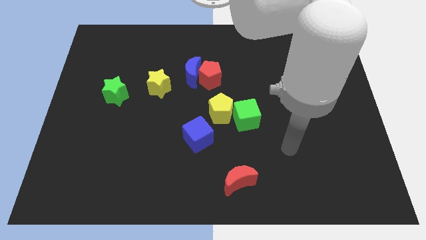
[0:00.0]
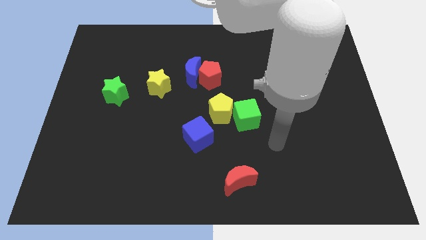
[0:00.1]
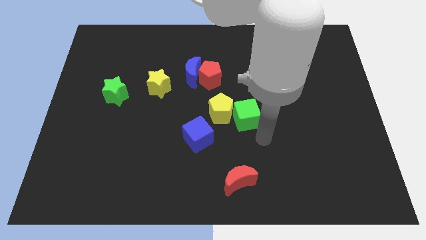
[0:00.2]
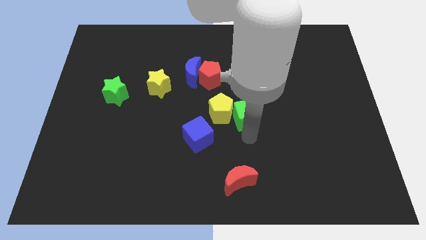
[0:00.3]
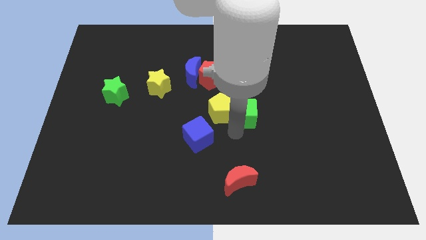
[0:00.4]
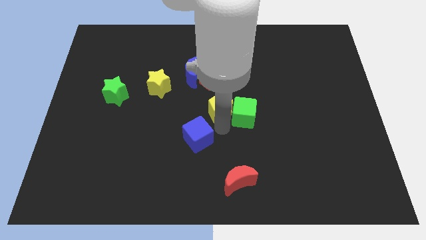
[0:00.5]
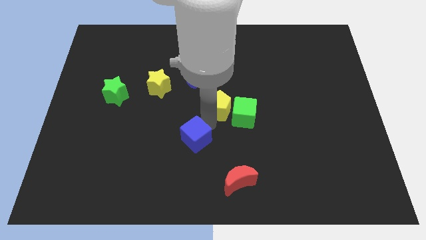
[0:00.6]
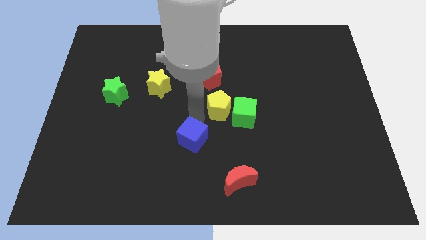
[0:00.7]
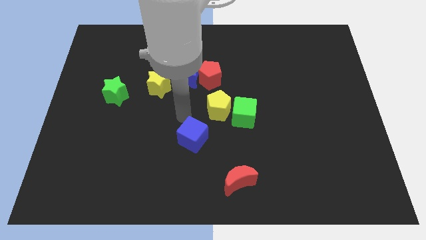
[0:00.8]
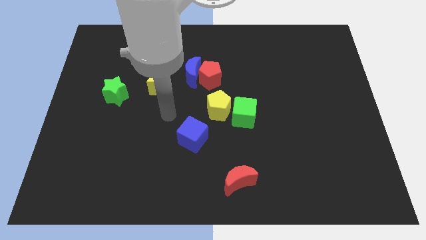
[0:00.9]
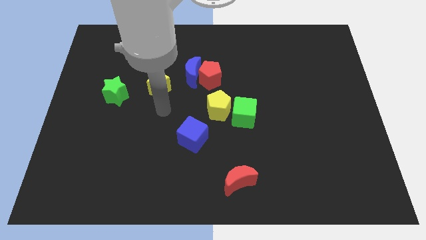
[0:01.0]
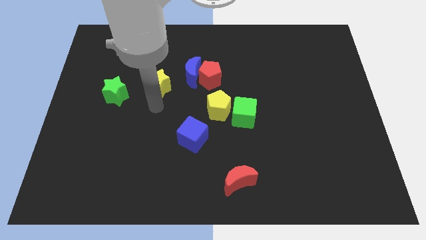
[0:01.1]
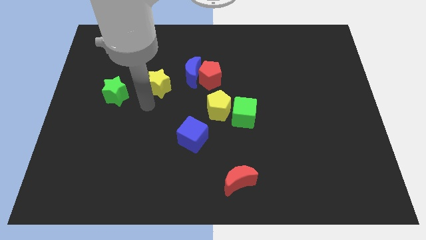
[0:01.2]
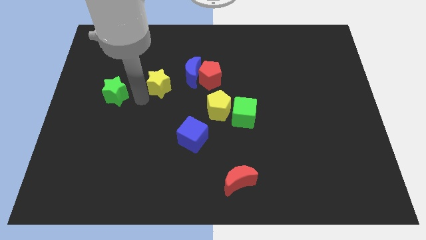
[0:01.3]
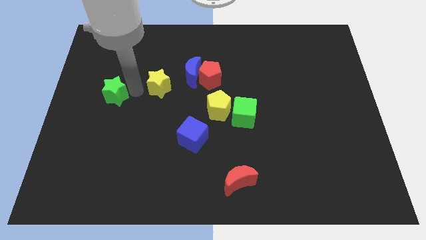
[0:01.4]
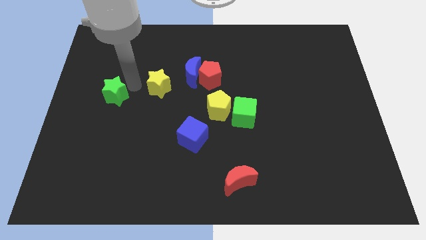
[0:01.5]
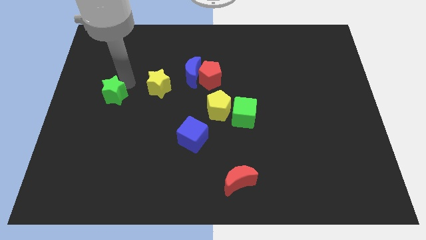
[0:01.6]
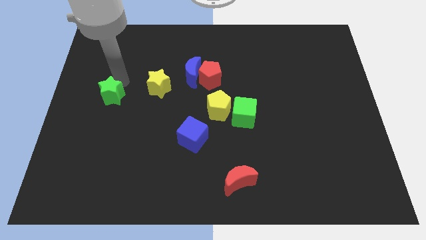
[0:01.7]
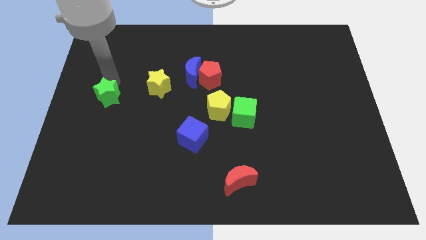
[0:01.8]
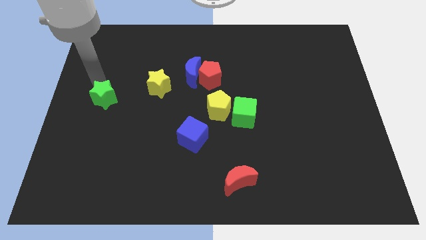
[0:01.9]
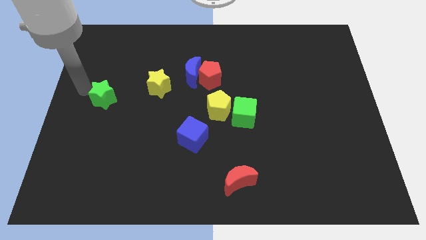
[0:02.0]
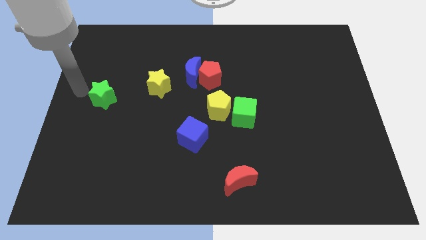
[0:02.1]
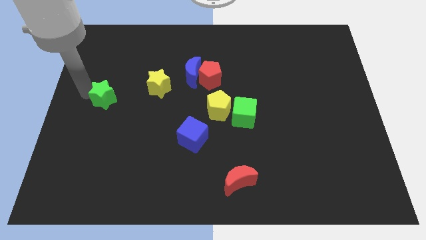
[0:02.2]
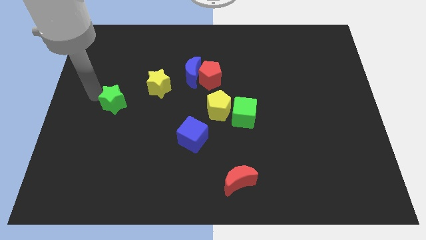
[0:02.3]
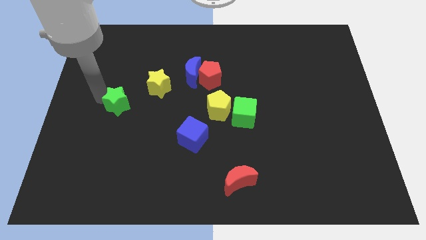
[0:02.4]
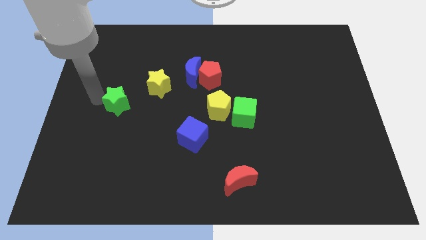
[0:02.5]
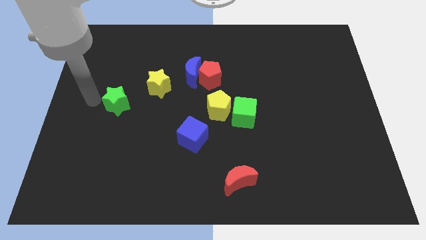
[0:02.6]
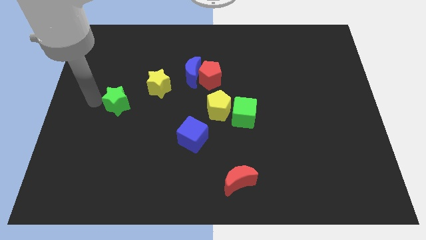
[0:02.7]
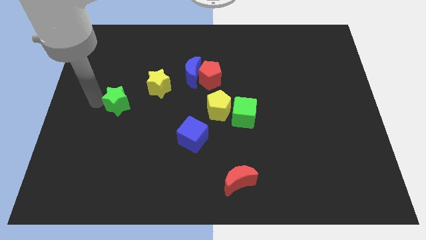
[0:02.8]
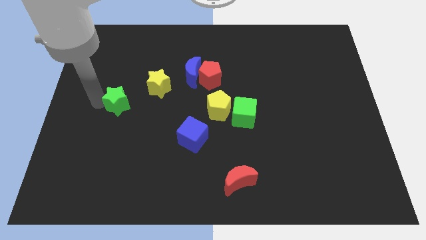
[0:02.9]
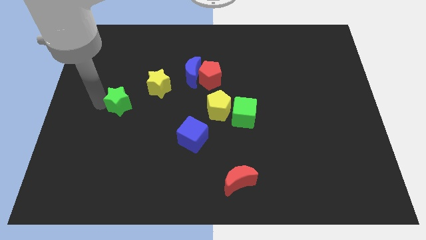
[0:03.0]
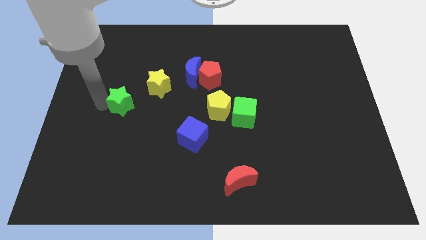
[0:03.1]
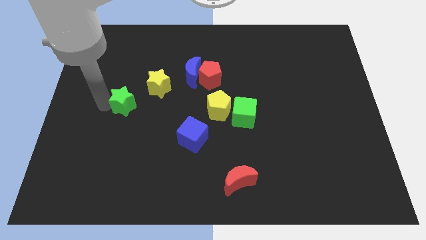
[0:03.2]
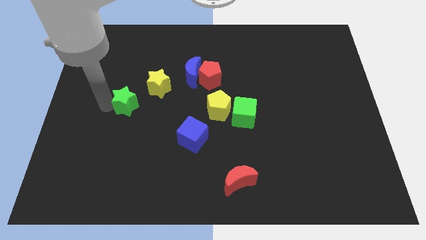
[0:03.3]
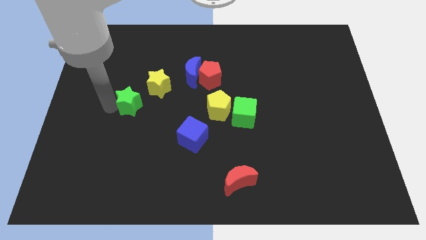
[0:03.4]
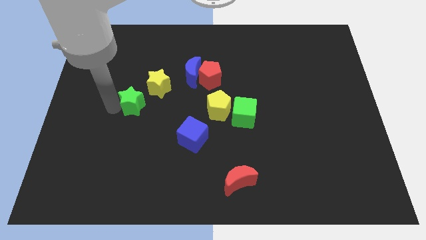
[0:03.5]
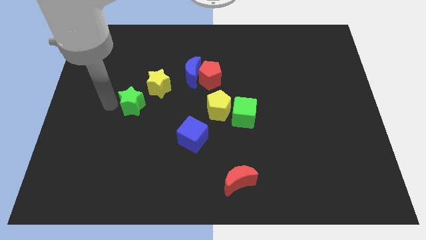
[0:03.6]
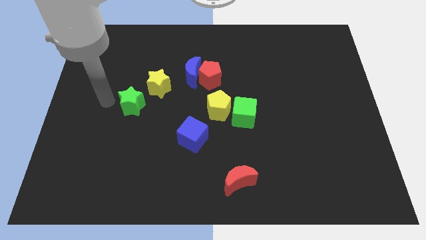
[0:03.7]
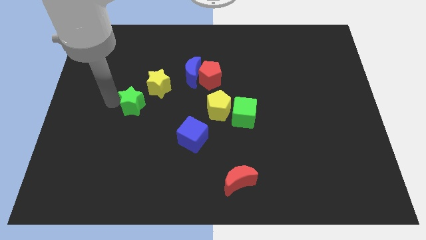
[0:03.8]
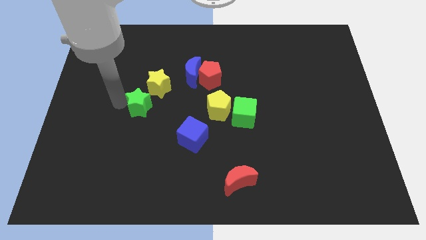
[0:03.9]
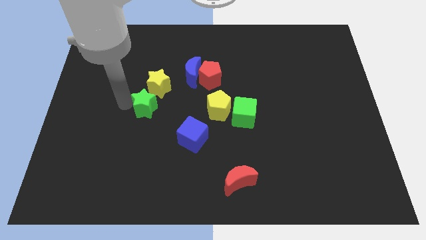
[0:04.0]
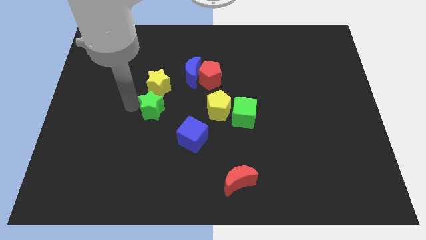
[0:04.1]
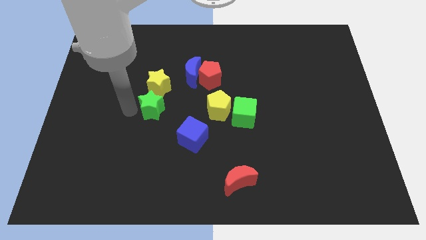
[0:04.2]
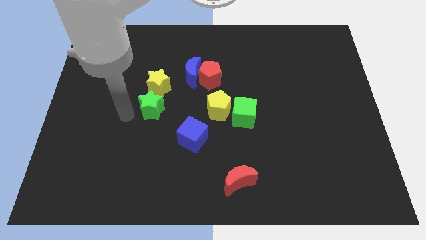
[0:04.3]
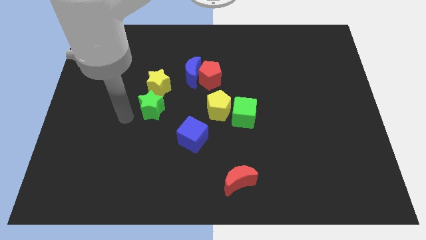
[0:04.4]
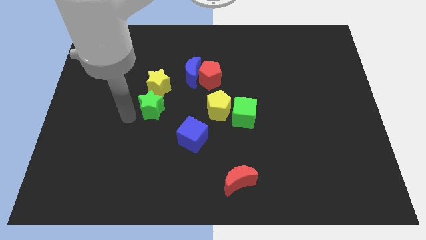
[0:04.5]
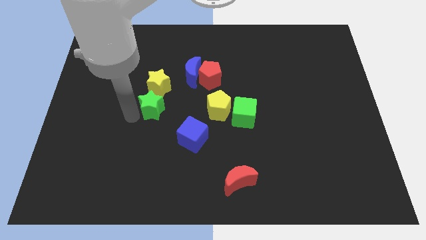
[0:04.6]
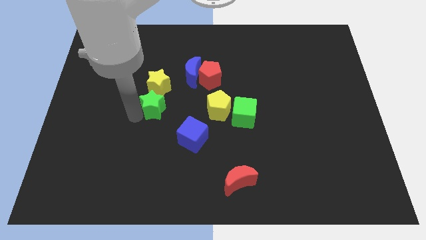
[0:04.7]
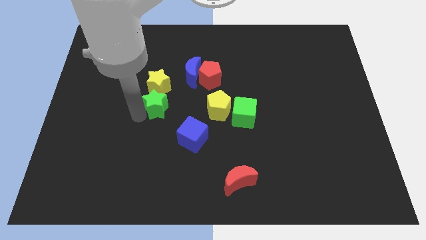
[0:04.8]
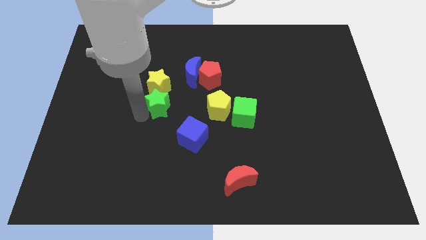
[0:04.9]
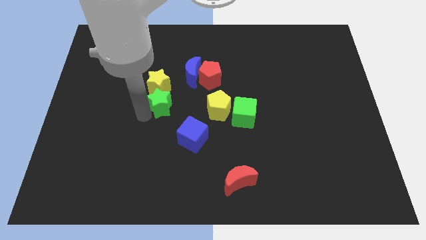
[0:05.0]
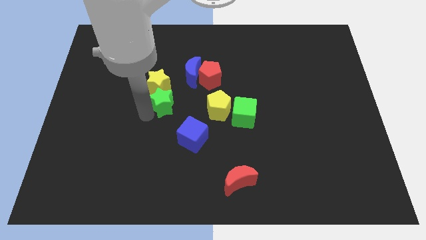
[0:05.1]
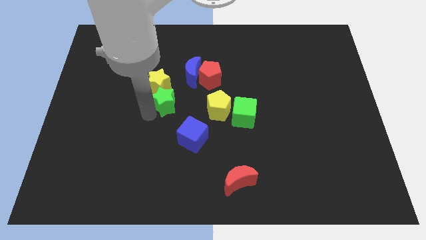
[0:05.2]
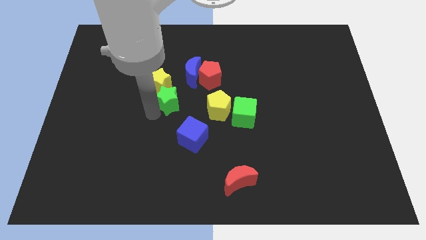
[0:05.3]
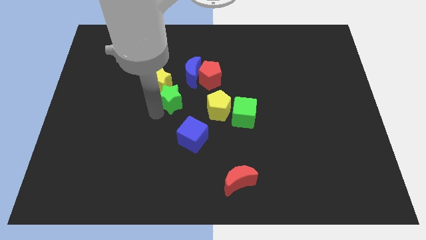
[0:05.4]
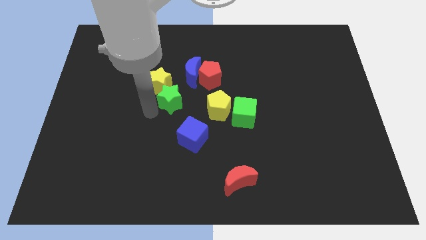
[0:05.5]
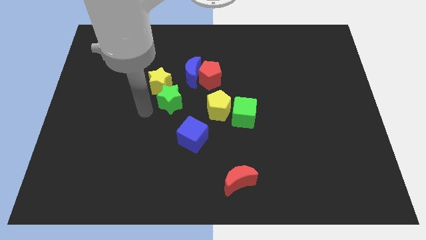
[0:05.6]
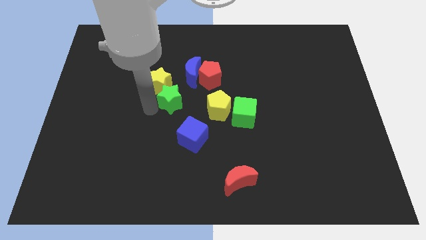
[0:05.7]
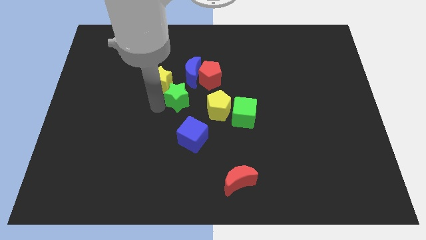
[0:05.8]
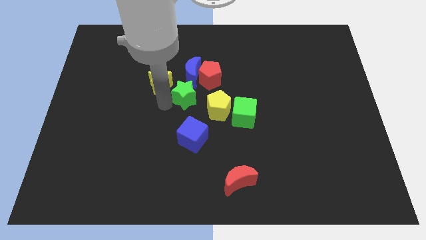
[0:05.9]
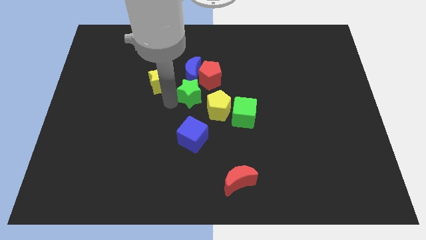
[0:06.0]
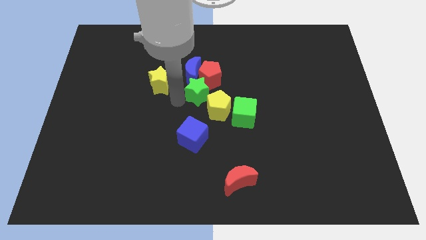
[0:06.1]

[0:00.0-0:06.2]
move the green star towards the red pentagon

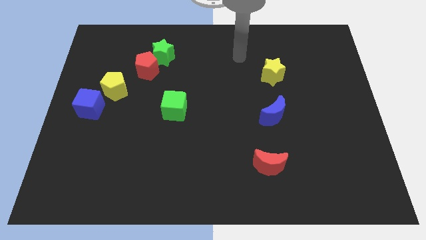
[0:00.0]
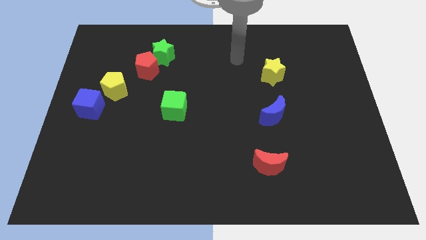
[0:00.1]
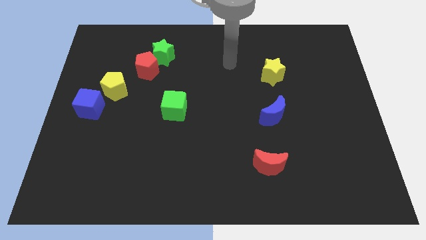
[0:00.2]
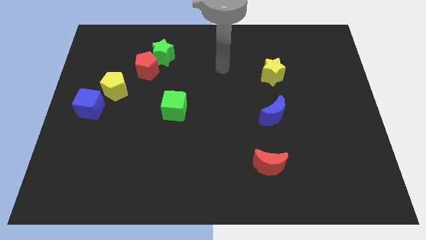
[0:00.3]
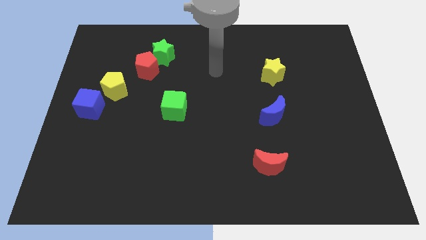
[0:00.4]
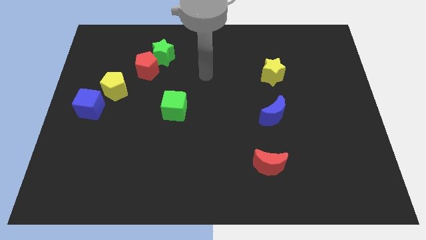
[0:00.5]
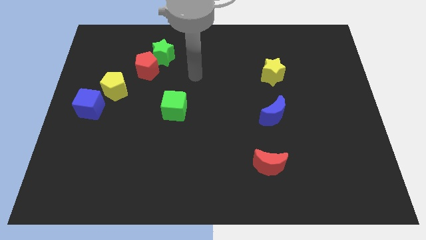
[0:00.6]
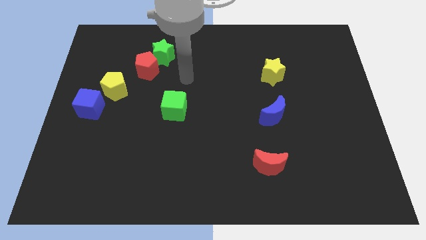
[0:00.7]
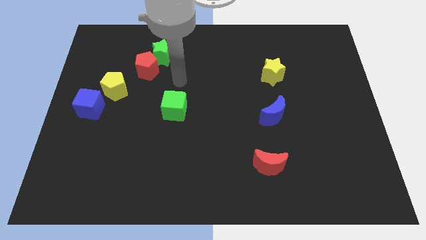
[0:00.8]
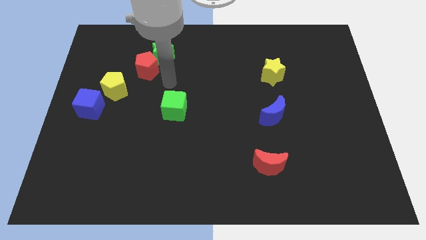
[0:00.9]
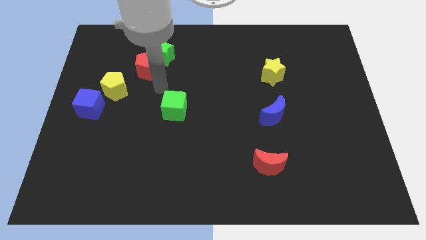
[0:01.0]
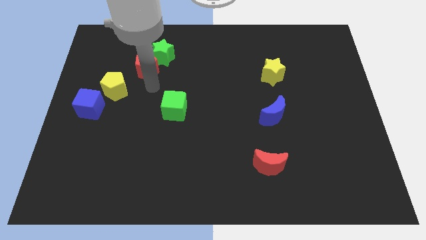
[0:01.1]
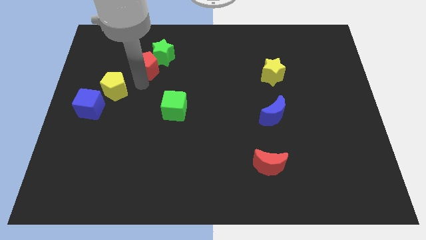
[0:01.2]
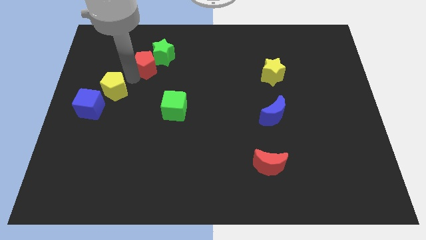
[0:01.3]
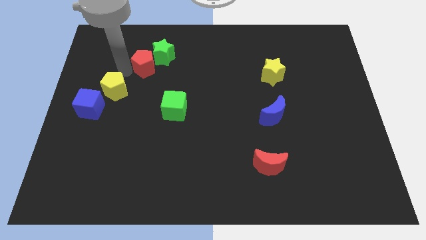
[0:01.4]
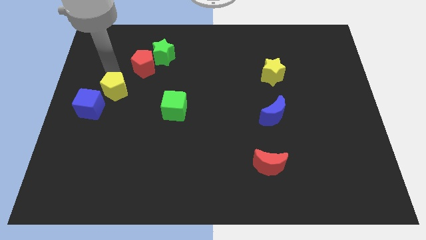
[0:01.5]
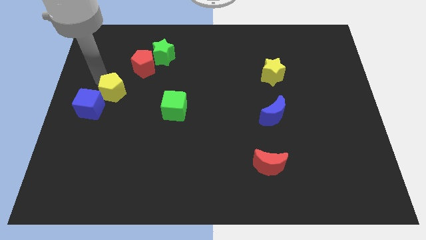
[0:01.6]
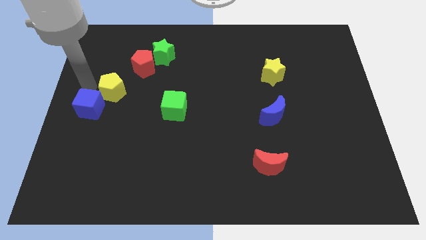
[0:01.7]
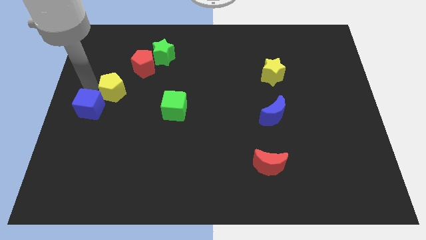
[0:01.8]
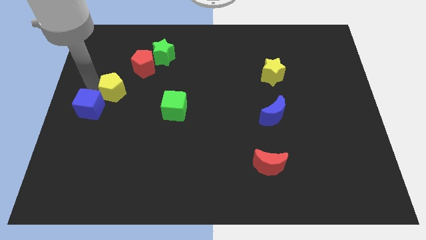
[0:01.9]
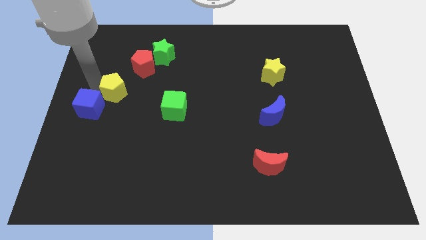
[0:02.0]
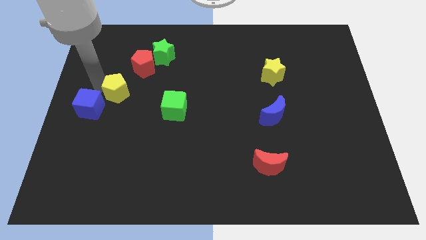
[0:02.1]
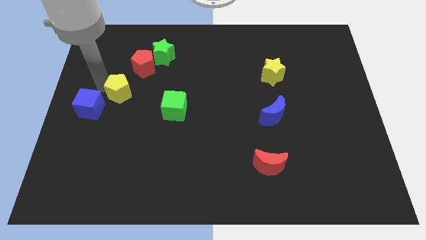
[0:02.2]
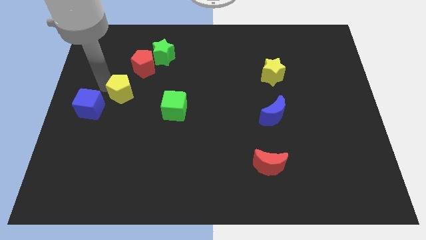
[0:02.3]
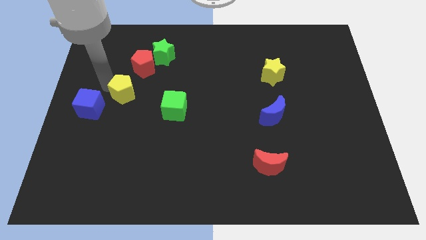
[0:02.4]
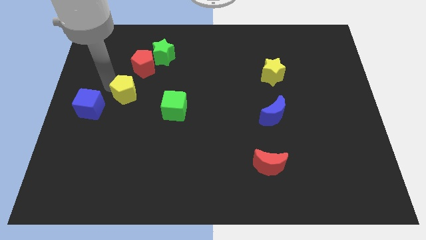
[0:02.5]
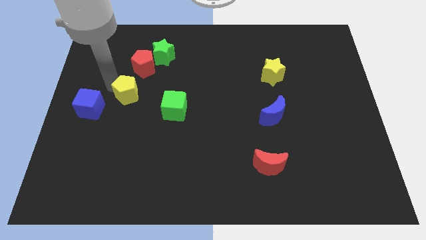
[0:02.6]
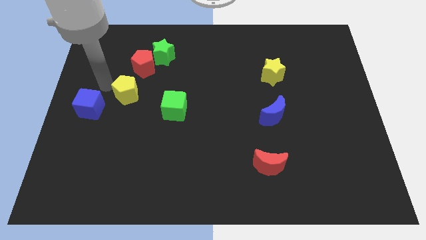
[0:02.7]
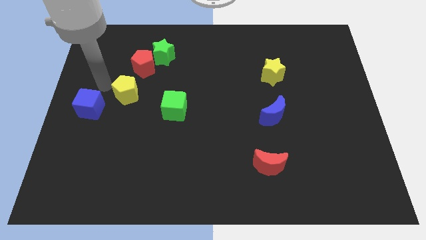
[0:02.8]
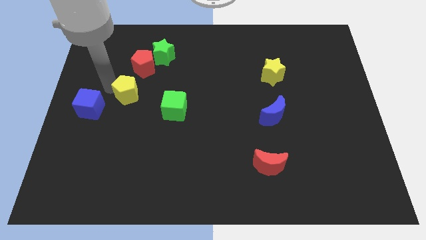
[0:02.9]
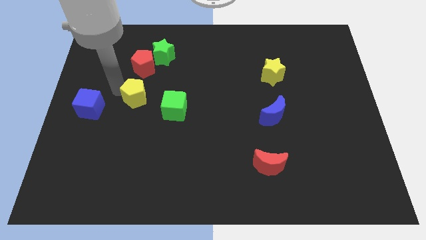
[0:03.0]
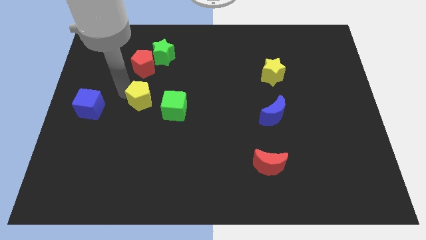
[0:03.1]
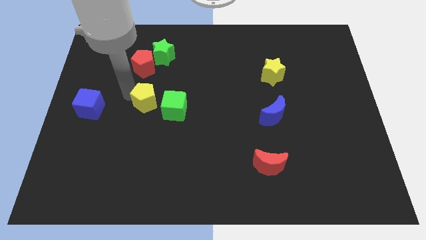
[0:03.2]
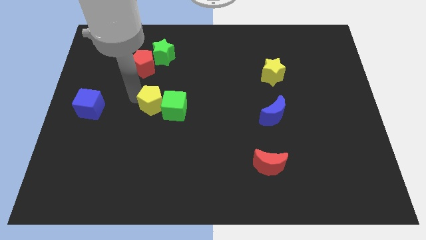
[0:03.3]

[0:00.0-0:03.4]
put the yellow pentagon close to the green cube
